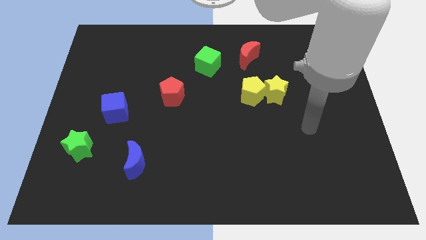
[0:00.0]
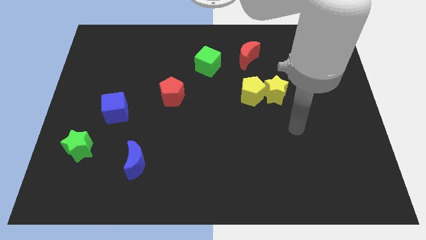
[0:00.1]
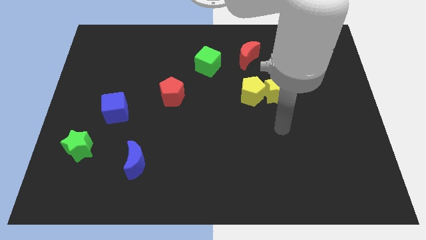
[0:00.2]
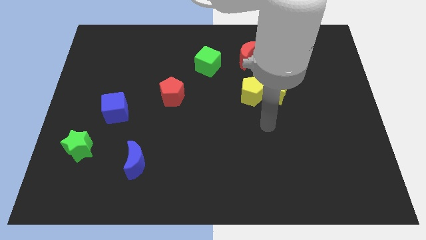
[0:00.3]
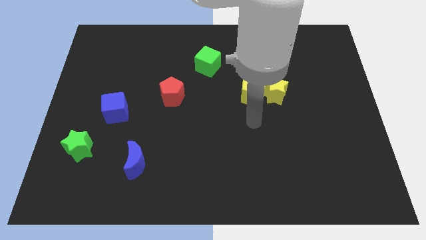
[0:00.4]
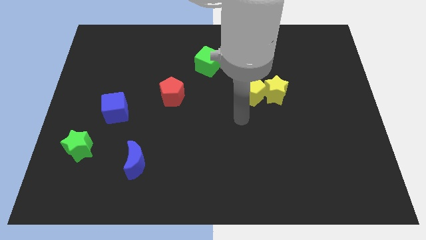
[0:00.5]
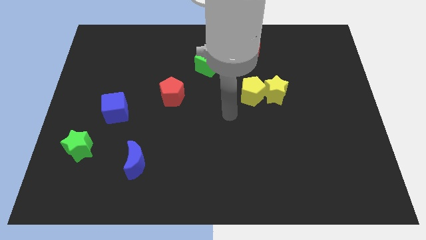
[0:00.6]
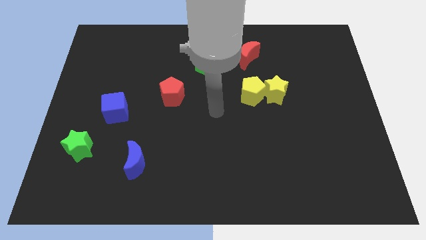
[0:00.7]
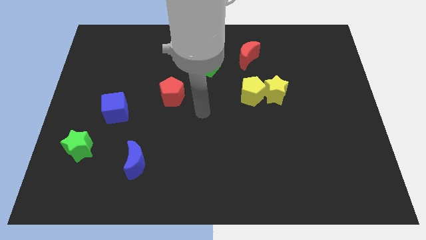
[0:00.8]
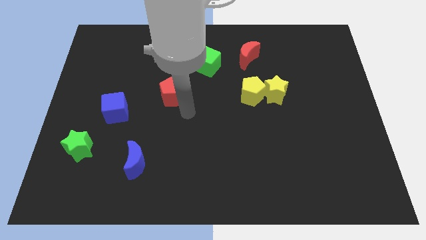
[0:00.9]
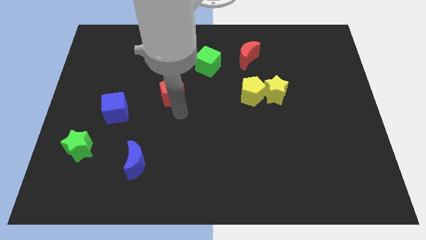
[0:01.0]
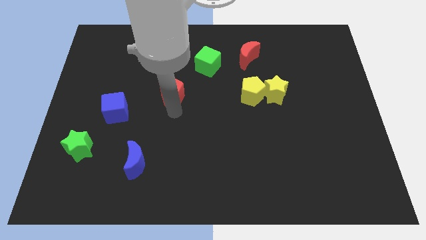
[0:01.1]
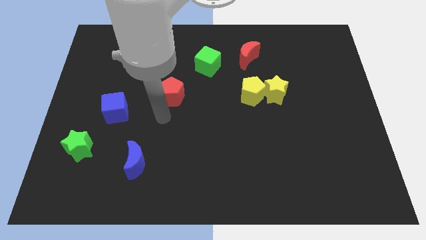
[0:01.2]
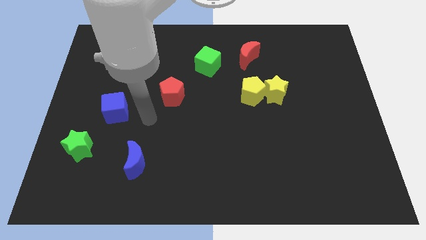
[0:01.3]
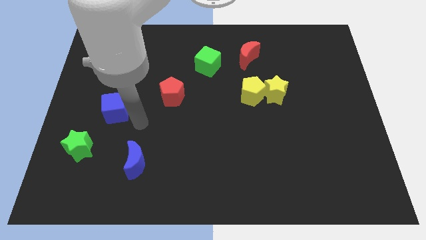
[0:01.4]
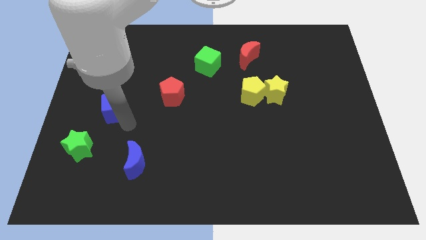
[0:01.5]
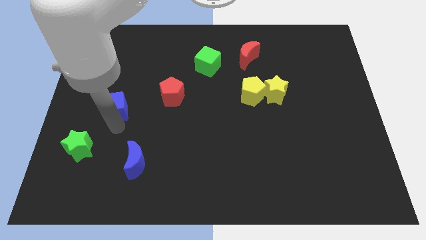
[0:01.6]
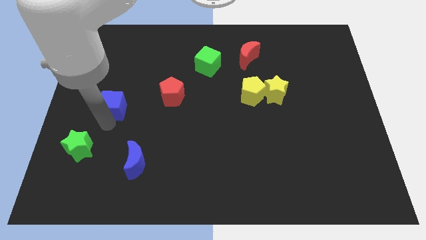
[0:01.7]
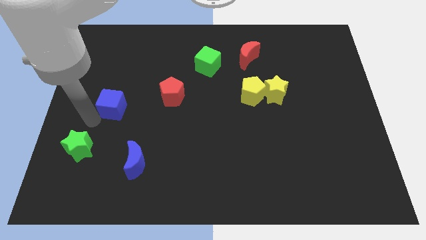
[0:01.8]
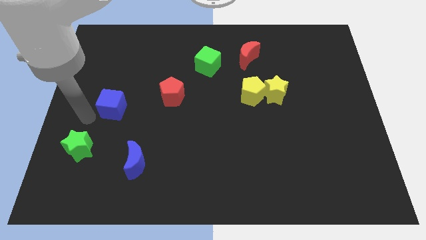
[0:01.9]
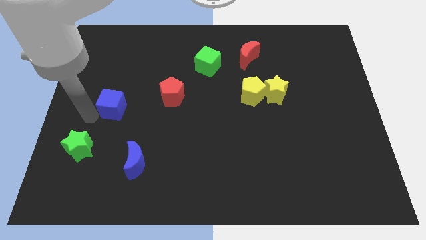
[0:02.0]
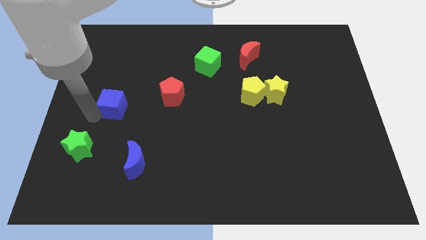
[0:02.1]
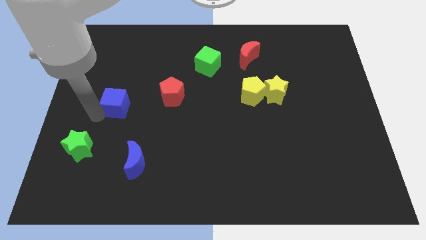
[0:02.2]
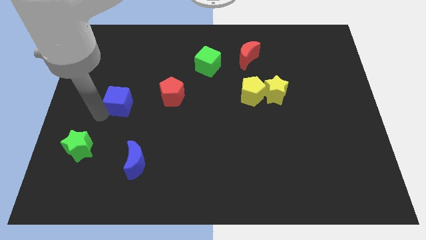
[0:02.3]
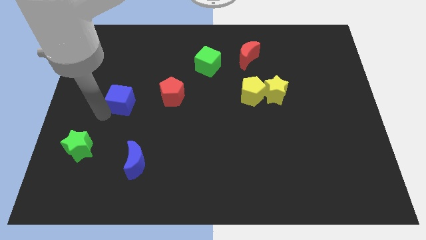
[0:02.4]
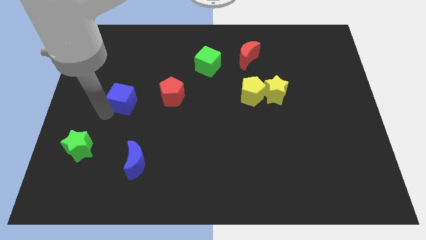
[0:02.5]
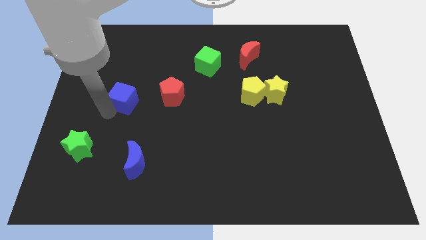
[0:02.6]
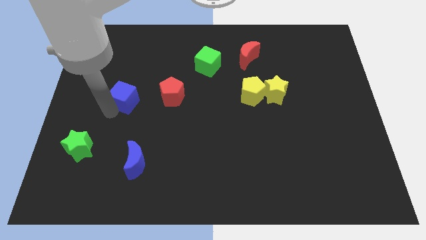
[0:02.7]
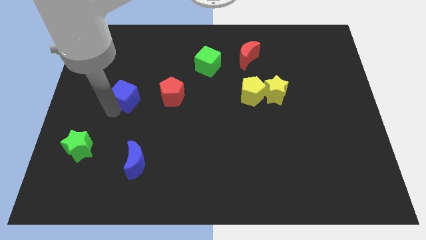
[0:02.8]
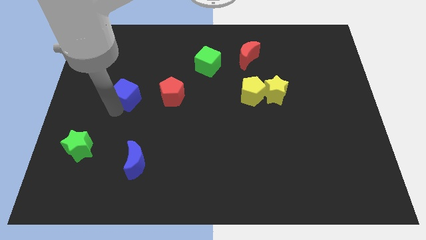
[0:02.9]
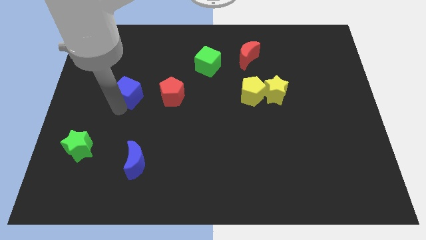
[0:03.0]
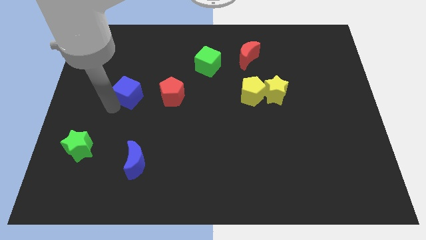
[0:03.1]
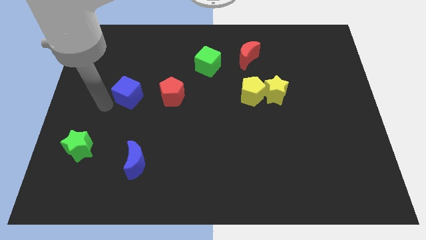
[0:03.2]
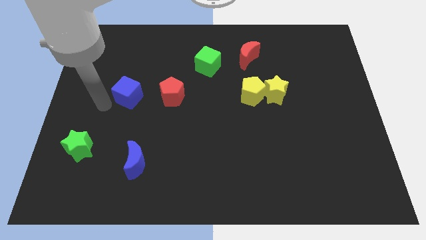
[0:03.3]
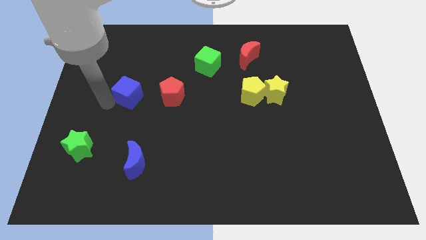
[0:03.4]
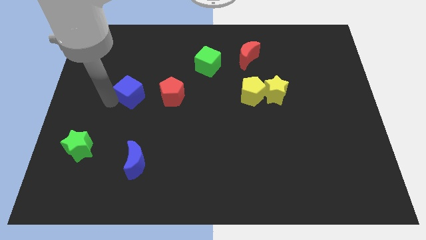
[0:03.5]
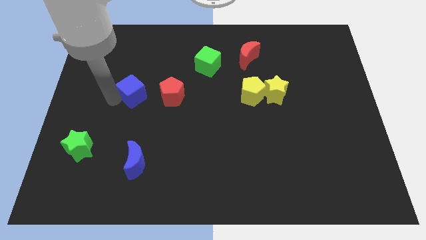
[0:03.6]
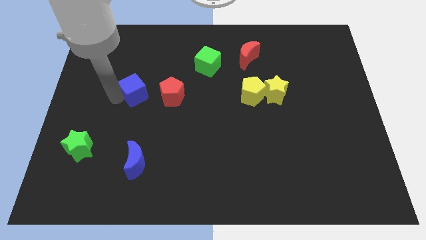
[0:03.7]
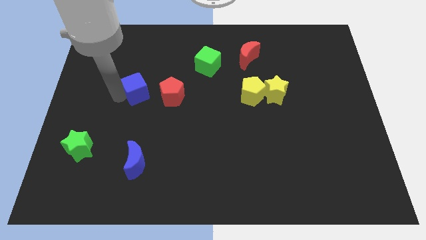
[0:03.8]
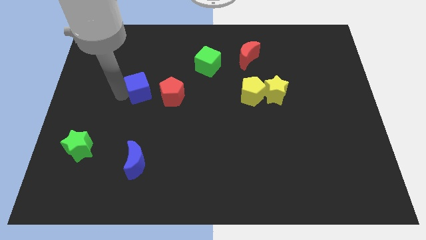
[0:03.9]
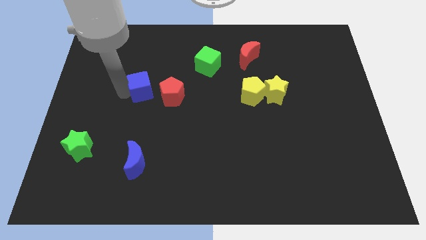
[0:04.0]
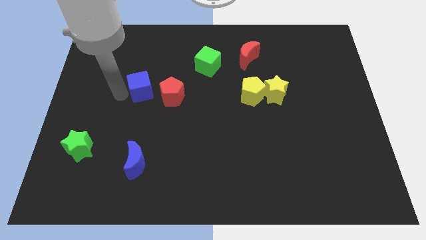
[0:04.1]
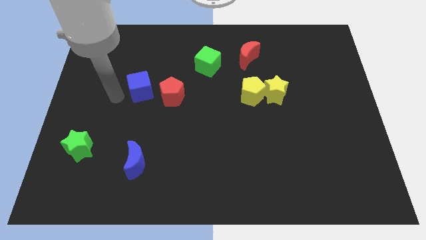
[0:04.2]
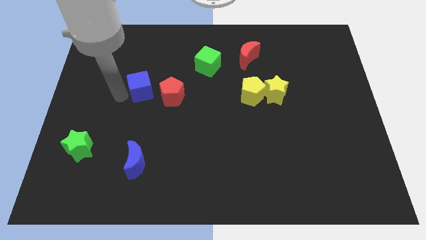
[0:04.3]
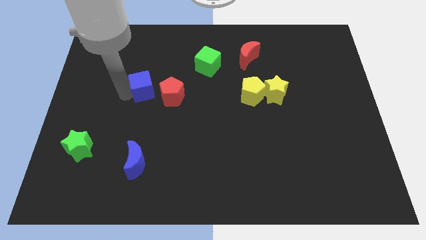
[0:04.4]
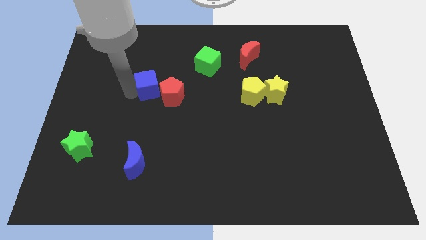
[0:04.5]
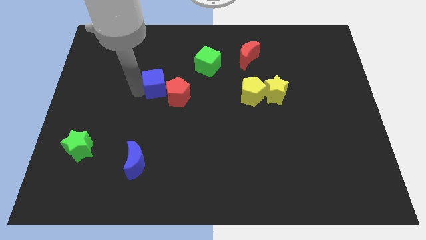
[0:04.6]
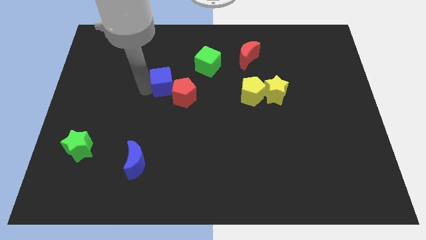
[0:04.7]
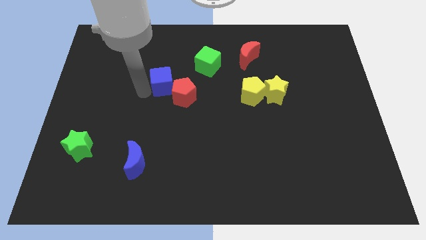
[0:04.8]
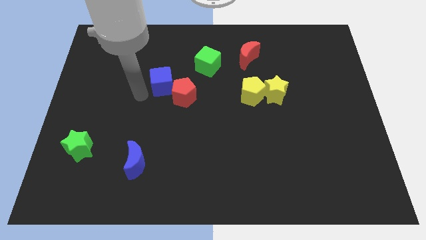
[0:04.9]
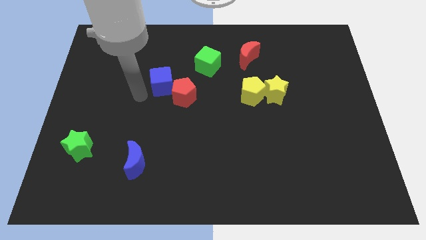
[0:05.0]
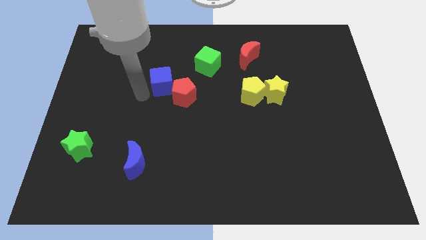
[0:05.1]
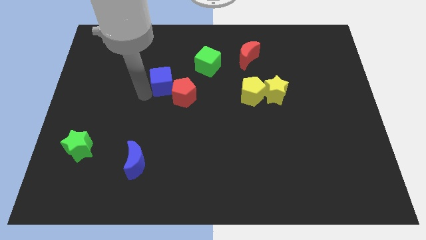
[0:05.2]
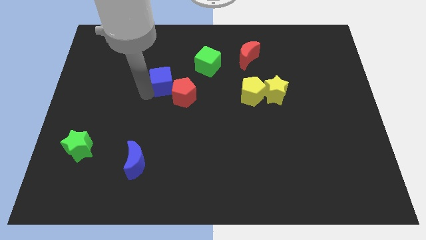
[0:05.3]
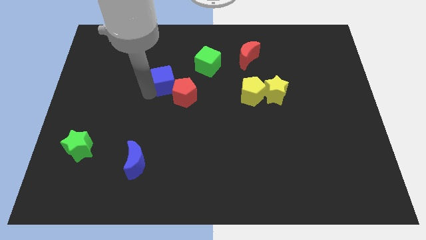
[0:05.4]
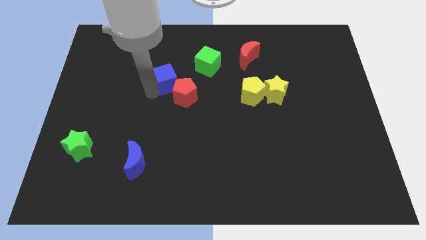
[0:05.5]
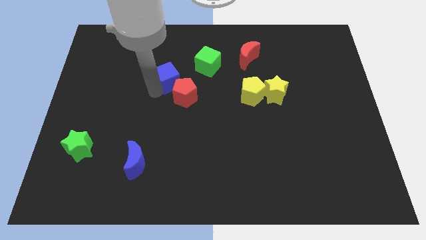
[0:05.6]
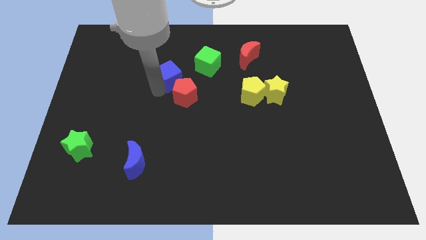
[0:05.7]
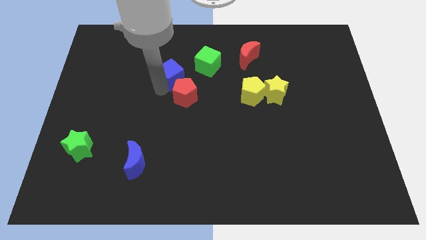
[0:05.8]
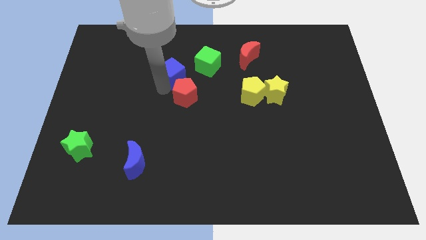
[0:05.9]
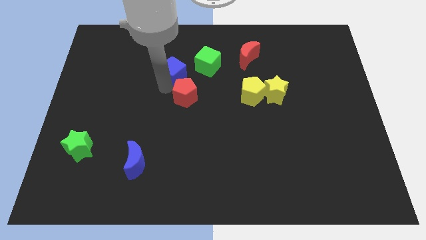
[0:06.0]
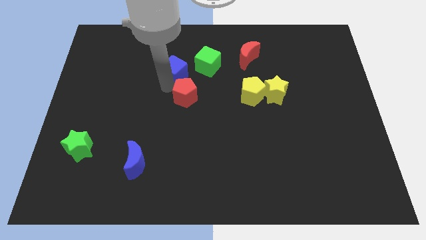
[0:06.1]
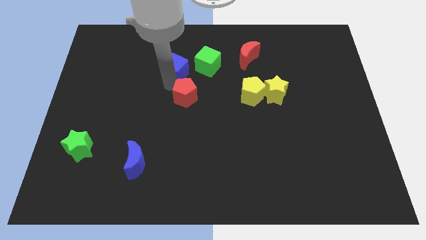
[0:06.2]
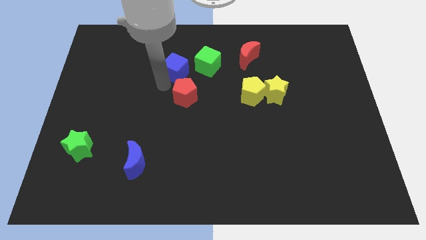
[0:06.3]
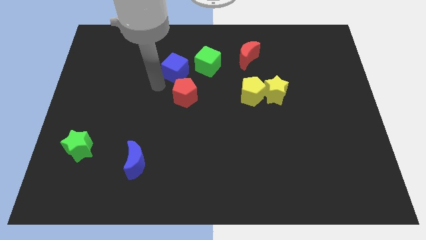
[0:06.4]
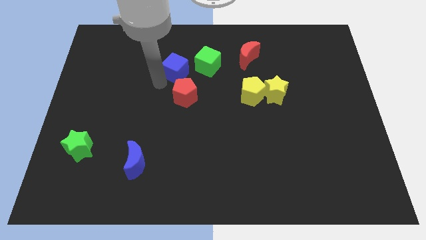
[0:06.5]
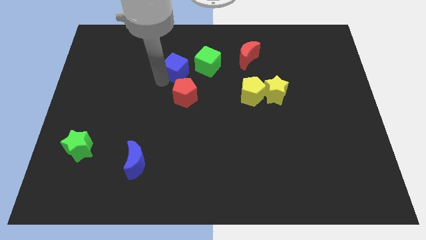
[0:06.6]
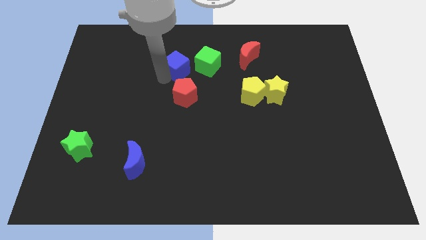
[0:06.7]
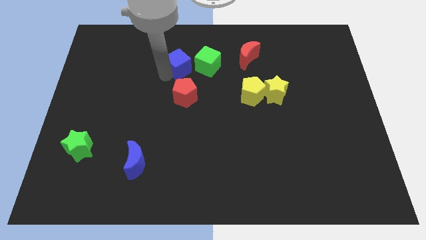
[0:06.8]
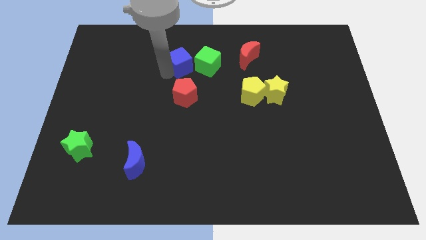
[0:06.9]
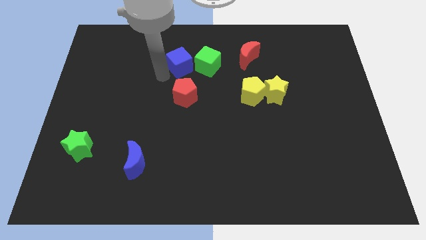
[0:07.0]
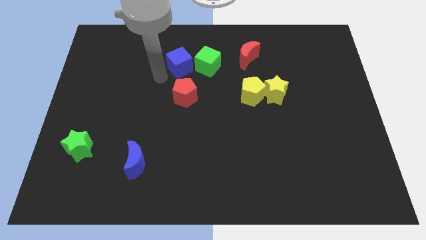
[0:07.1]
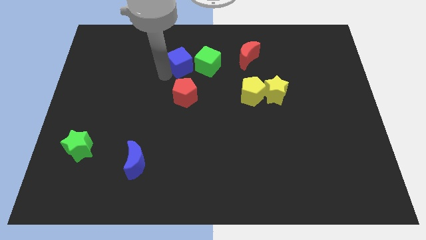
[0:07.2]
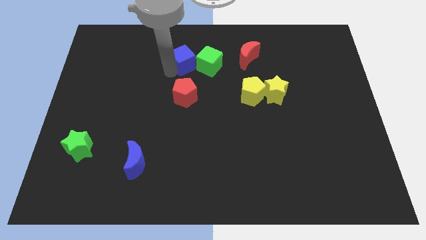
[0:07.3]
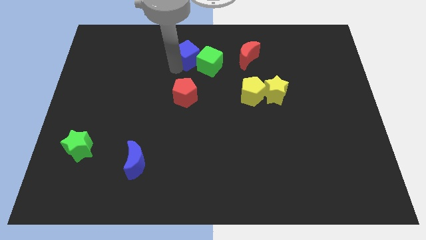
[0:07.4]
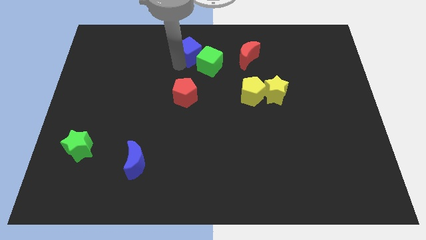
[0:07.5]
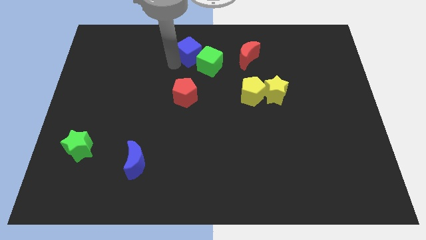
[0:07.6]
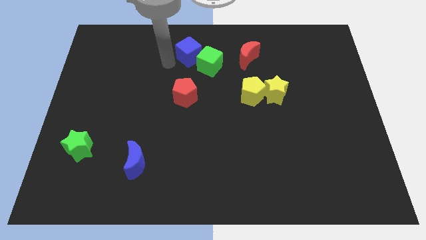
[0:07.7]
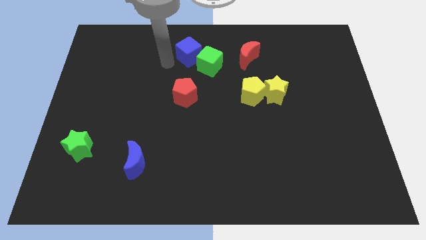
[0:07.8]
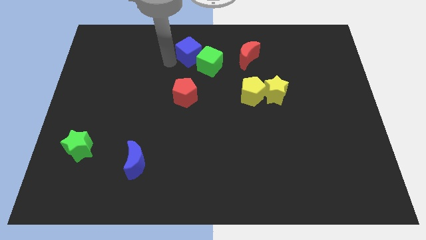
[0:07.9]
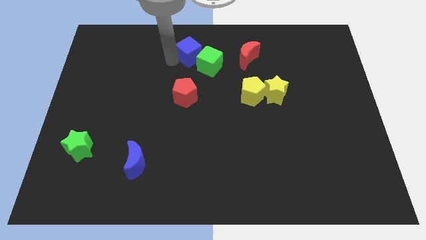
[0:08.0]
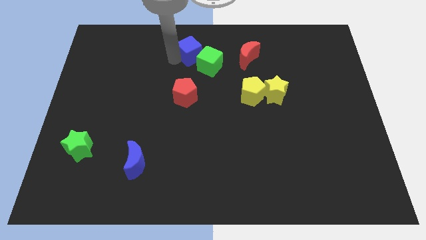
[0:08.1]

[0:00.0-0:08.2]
move the blue cube to the top
